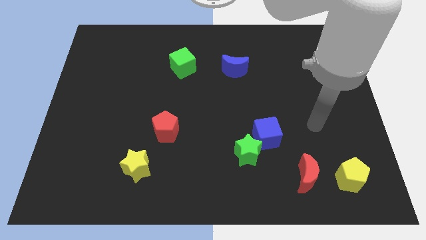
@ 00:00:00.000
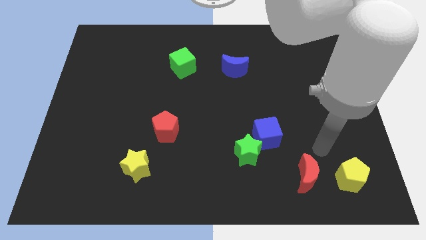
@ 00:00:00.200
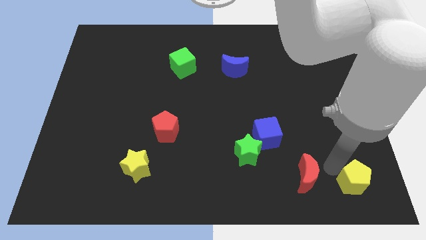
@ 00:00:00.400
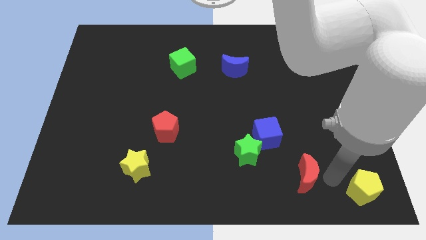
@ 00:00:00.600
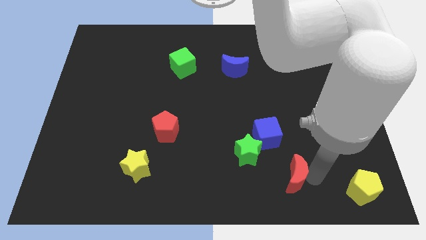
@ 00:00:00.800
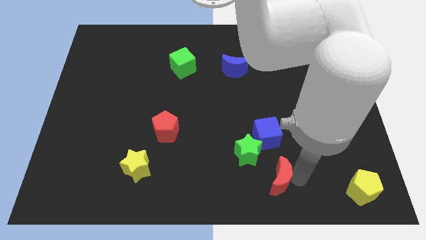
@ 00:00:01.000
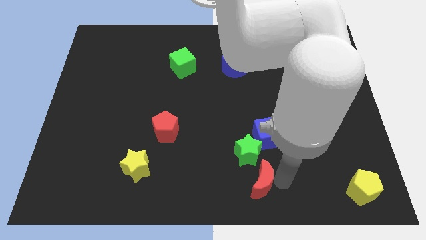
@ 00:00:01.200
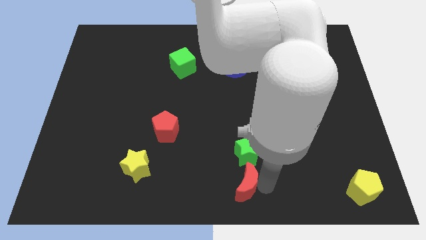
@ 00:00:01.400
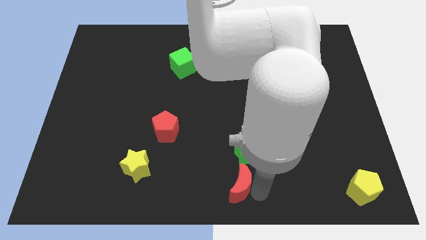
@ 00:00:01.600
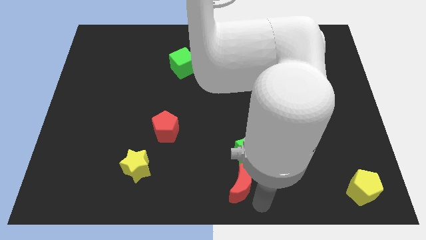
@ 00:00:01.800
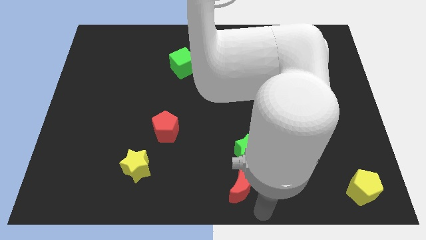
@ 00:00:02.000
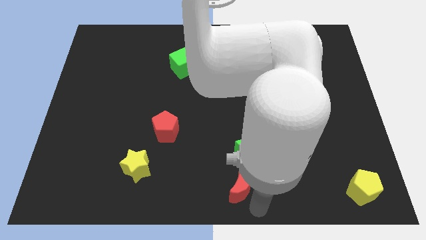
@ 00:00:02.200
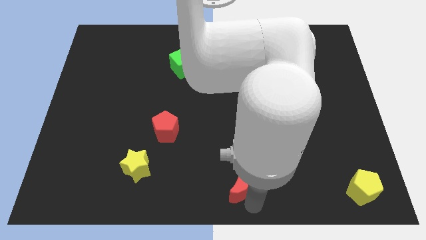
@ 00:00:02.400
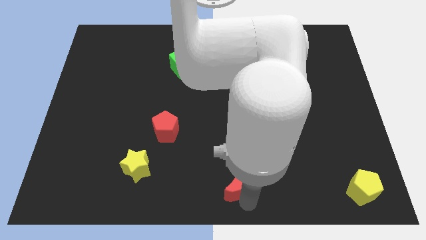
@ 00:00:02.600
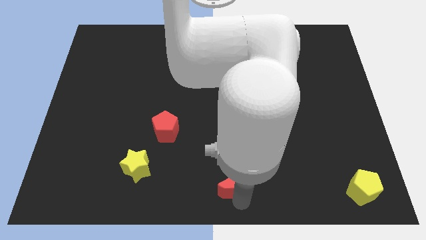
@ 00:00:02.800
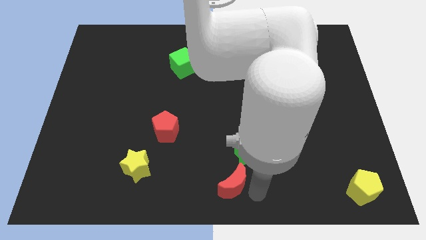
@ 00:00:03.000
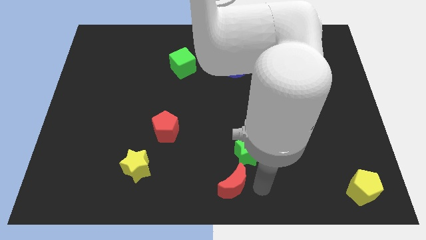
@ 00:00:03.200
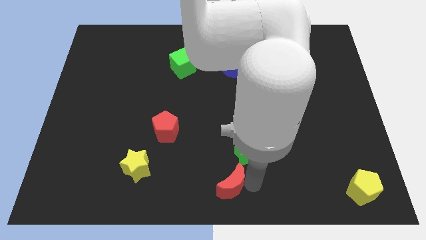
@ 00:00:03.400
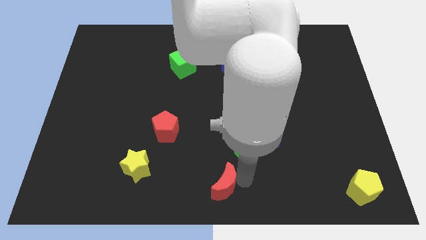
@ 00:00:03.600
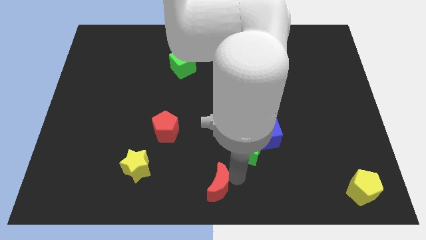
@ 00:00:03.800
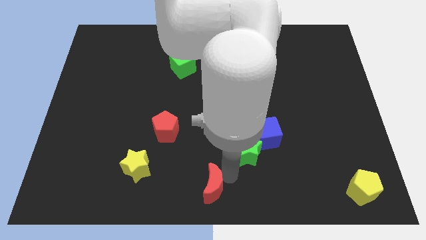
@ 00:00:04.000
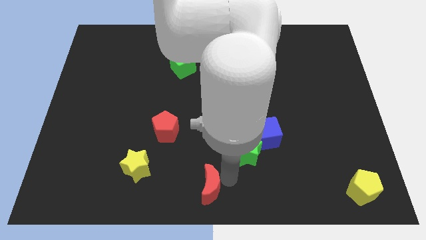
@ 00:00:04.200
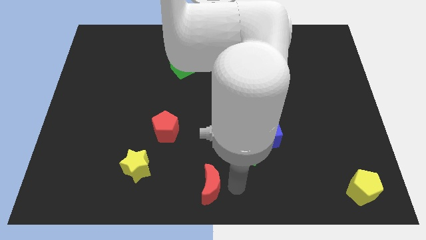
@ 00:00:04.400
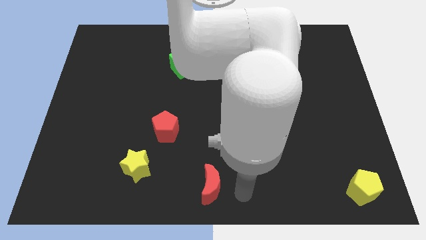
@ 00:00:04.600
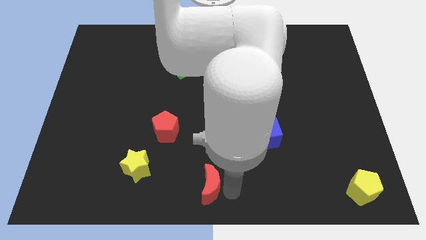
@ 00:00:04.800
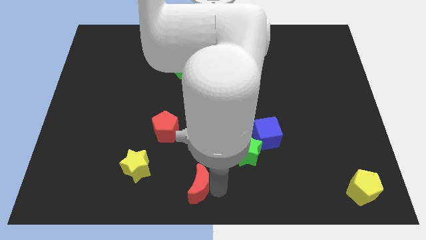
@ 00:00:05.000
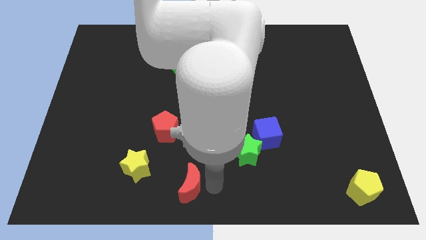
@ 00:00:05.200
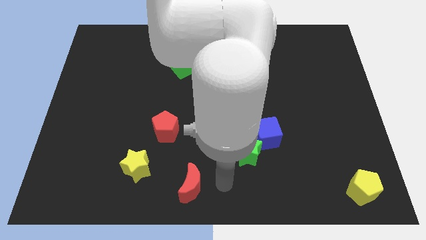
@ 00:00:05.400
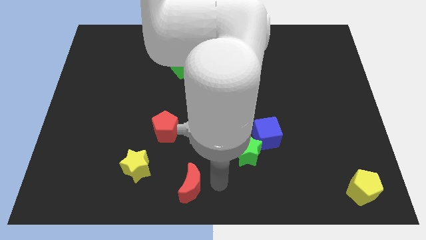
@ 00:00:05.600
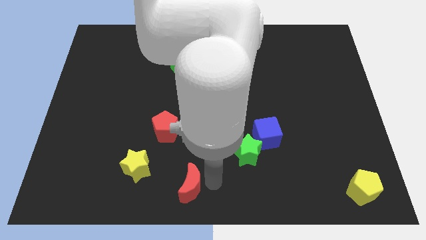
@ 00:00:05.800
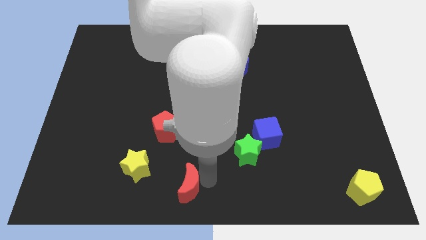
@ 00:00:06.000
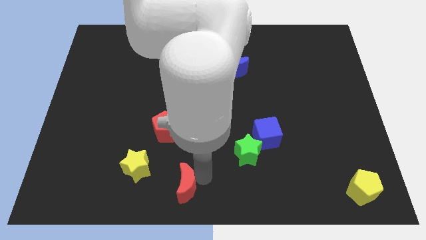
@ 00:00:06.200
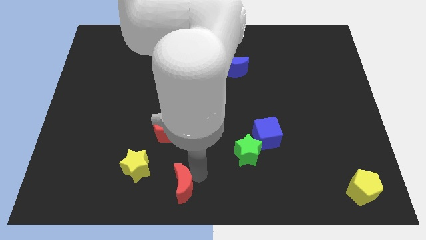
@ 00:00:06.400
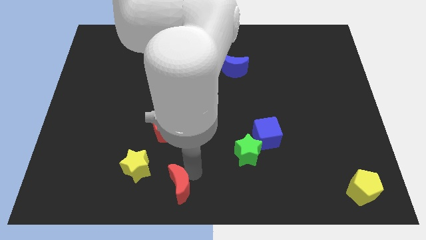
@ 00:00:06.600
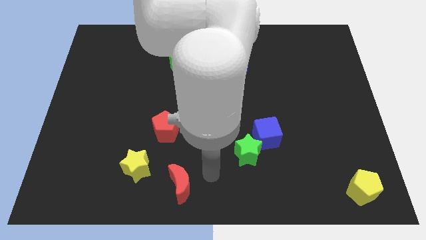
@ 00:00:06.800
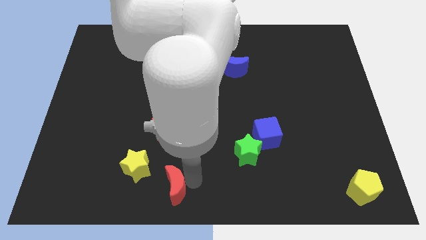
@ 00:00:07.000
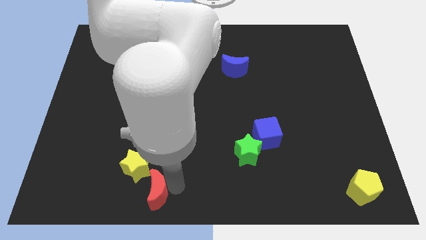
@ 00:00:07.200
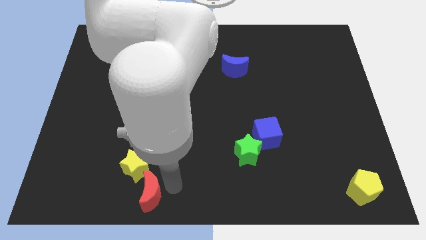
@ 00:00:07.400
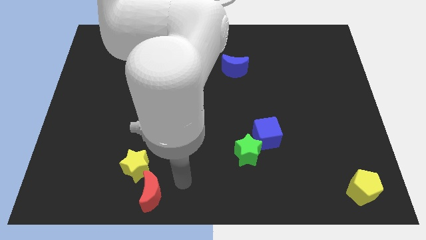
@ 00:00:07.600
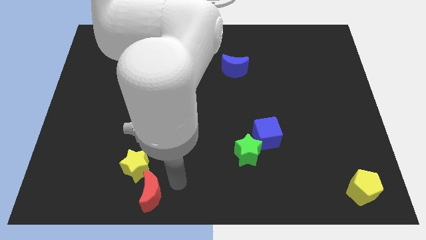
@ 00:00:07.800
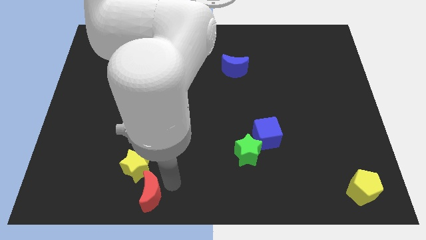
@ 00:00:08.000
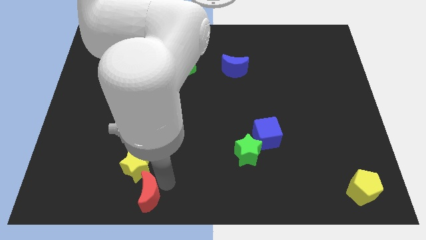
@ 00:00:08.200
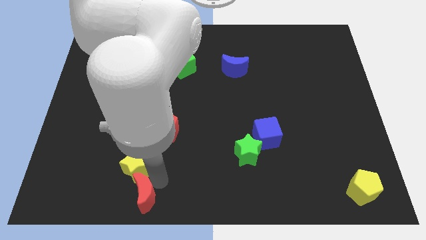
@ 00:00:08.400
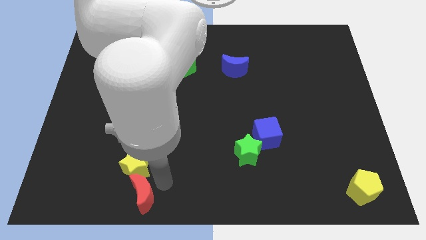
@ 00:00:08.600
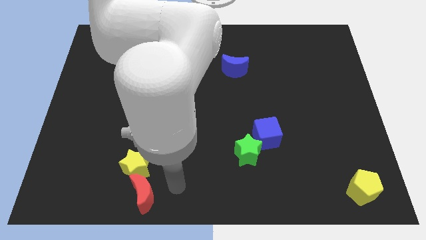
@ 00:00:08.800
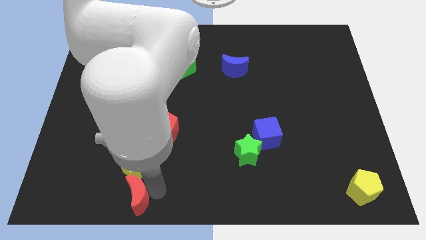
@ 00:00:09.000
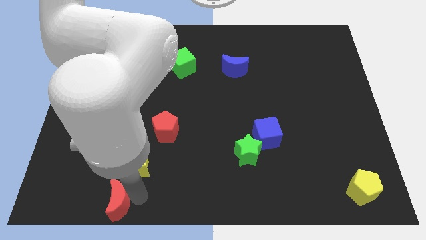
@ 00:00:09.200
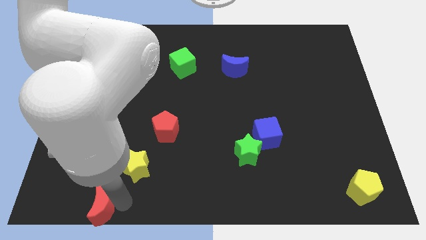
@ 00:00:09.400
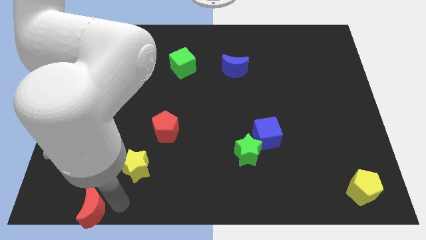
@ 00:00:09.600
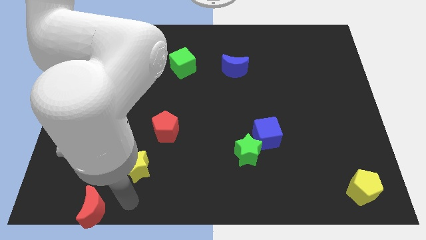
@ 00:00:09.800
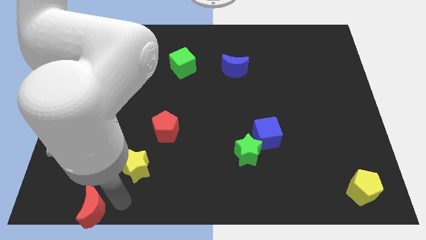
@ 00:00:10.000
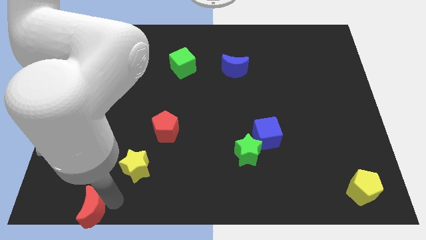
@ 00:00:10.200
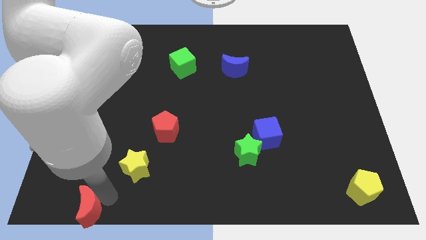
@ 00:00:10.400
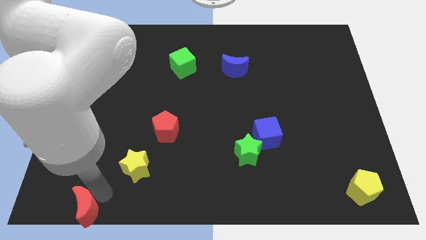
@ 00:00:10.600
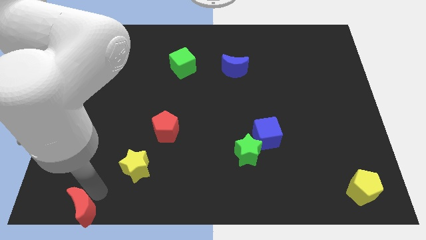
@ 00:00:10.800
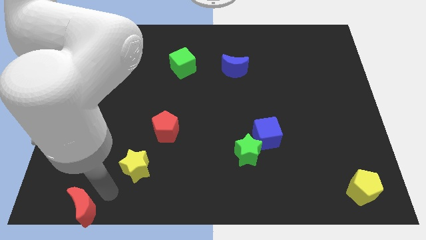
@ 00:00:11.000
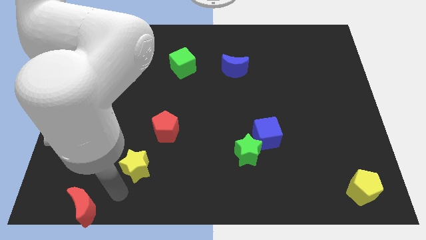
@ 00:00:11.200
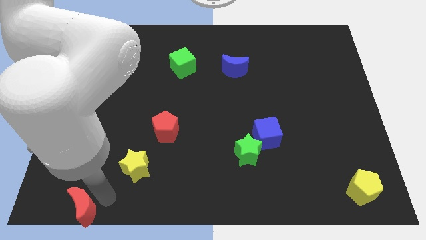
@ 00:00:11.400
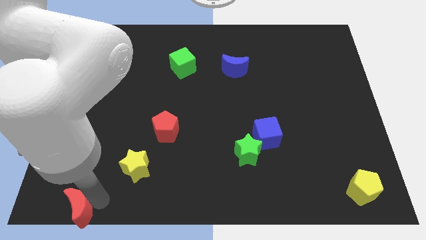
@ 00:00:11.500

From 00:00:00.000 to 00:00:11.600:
move the red moon to the lower left corner
